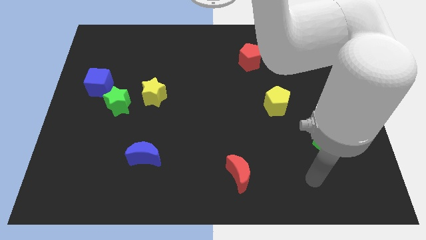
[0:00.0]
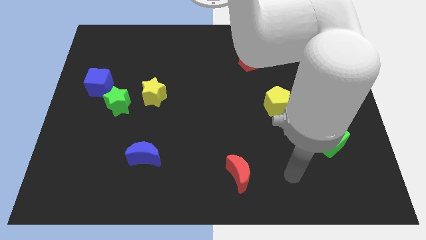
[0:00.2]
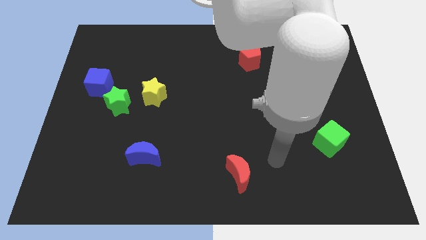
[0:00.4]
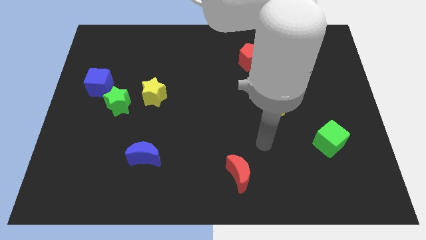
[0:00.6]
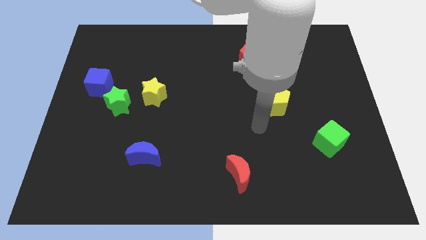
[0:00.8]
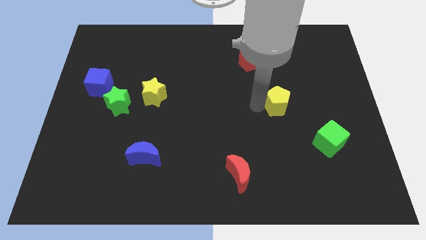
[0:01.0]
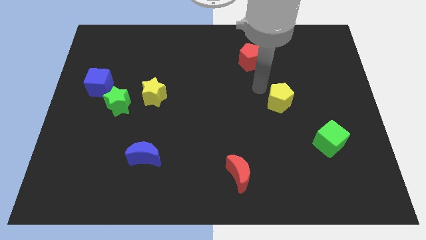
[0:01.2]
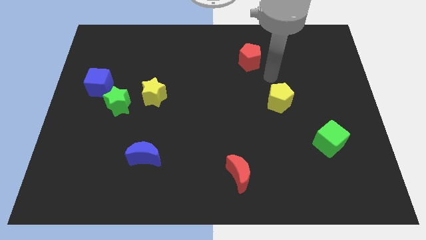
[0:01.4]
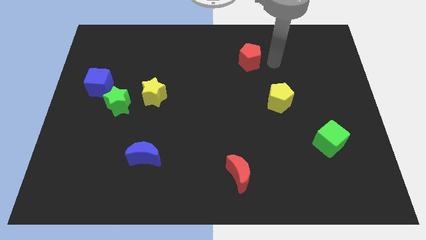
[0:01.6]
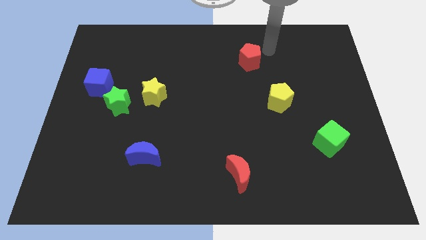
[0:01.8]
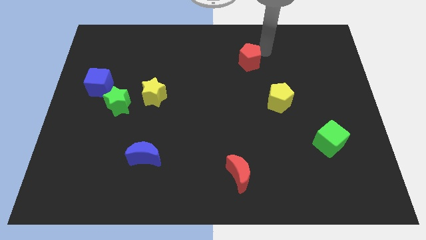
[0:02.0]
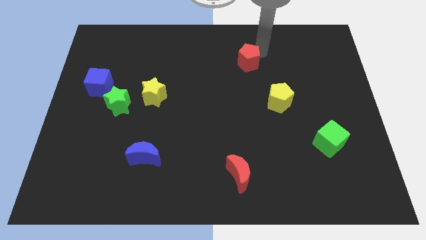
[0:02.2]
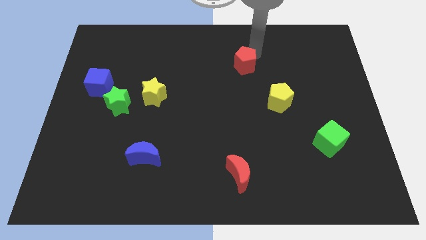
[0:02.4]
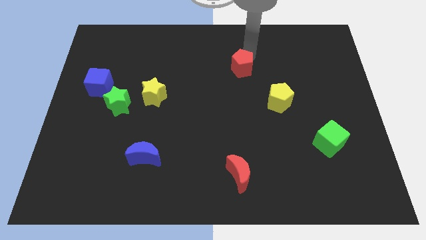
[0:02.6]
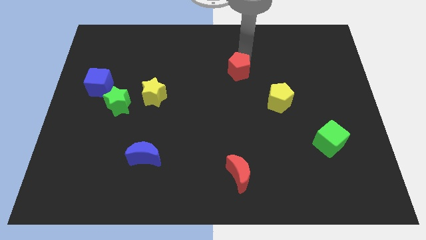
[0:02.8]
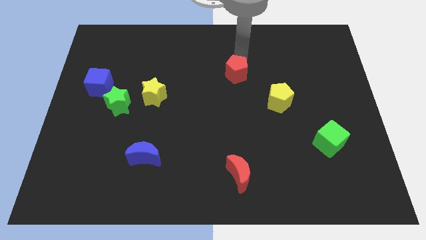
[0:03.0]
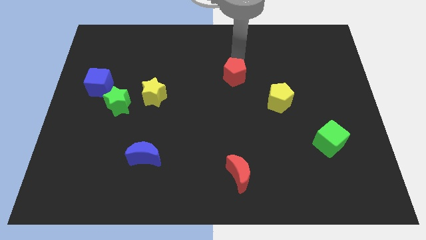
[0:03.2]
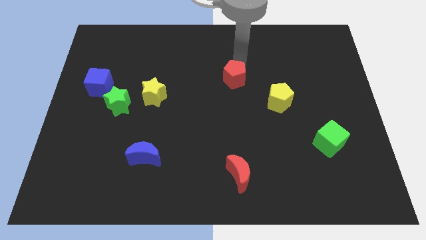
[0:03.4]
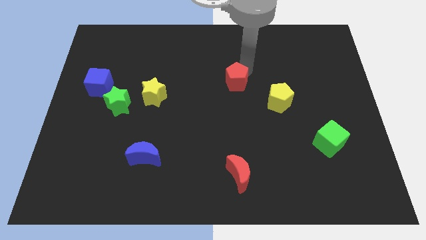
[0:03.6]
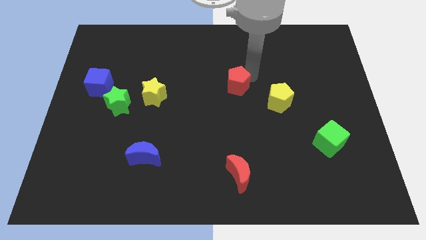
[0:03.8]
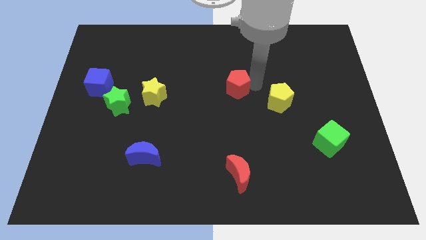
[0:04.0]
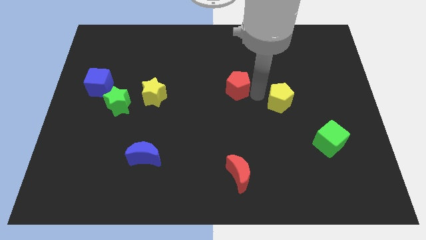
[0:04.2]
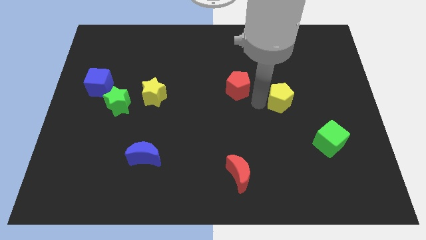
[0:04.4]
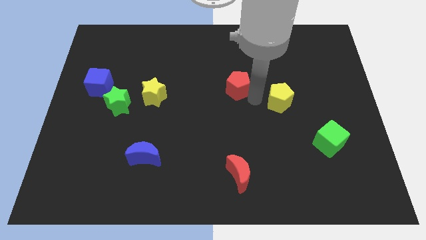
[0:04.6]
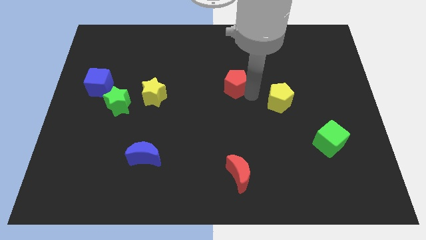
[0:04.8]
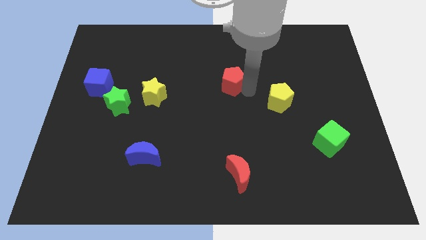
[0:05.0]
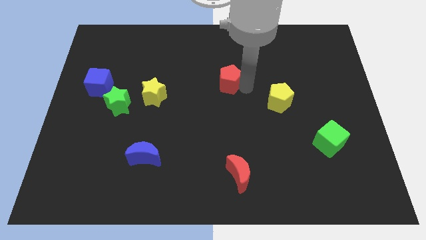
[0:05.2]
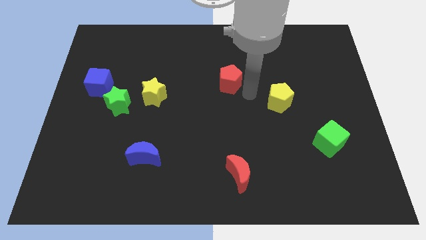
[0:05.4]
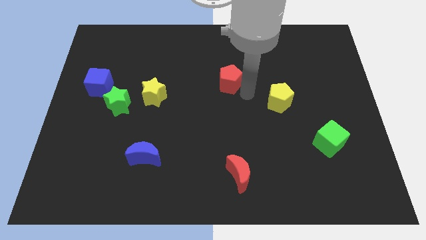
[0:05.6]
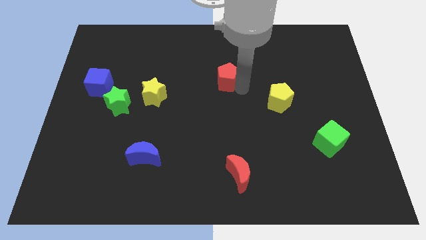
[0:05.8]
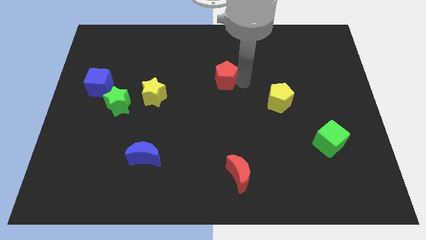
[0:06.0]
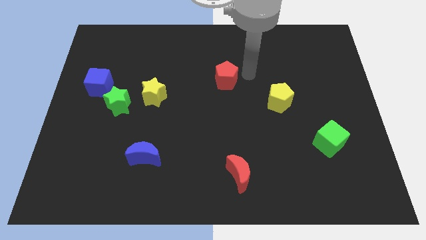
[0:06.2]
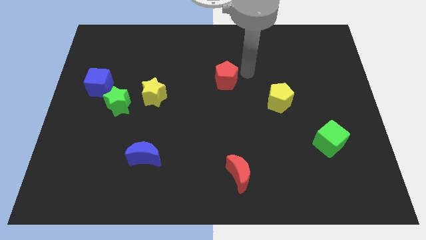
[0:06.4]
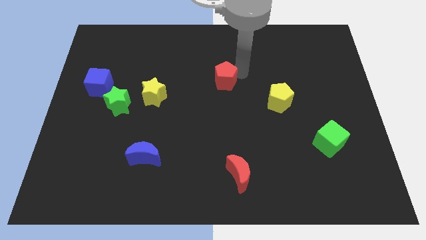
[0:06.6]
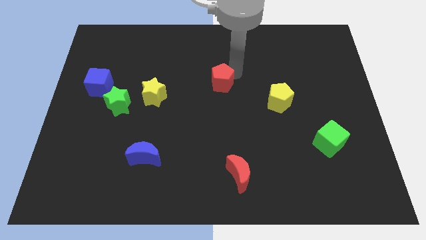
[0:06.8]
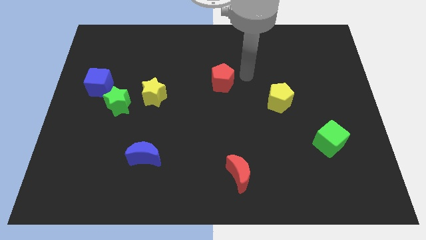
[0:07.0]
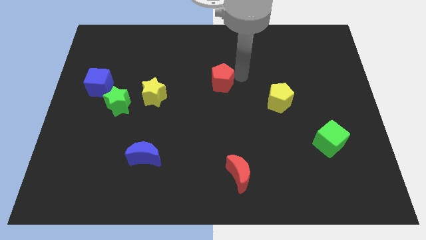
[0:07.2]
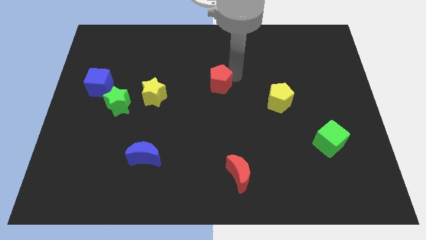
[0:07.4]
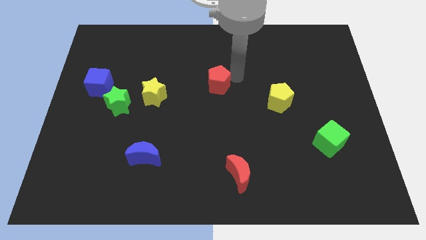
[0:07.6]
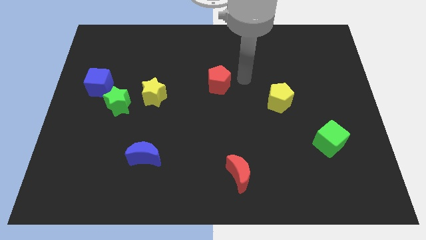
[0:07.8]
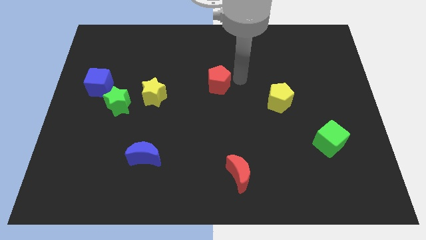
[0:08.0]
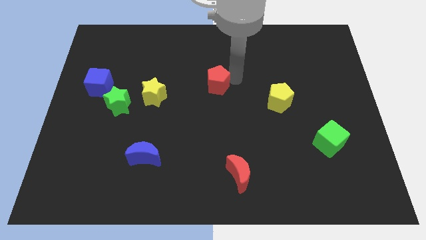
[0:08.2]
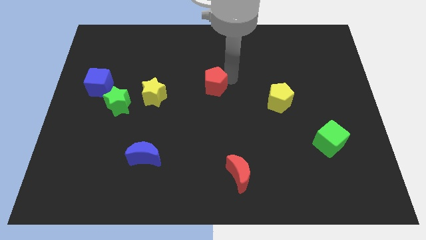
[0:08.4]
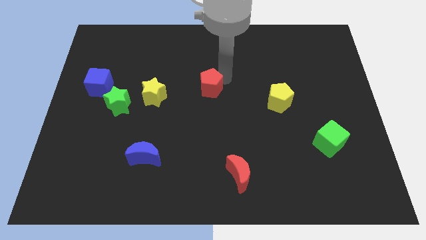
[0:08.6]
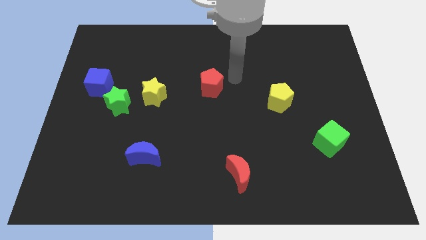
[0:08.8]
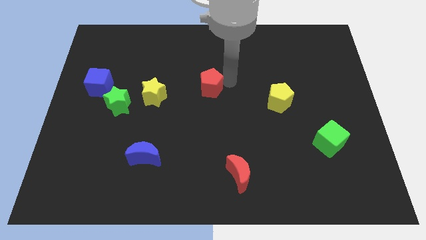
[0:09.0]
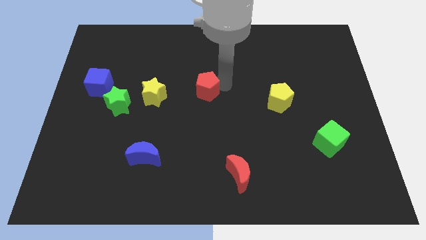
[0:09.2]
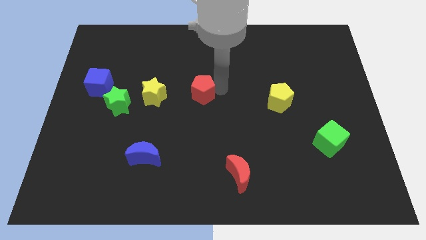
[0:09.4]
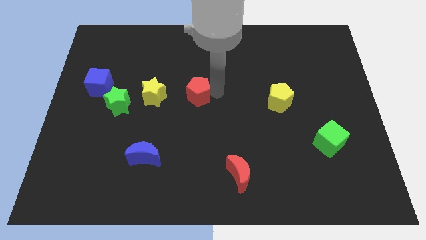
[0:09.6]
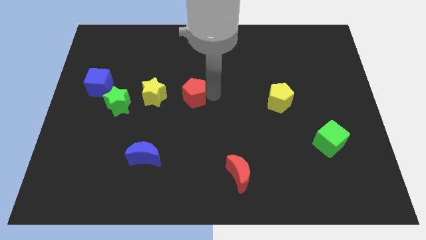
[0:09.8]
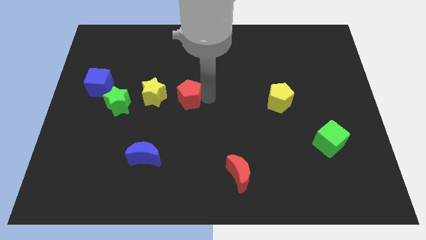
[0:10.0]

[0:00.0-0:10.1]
move the red pentagon diagonally down and to the left

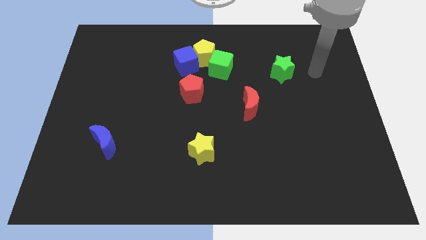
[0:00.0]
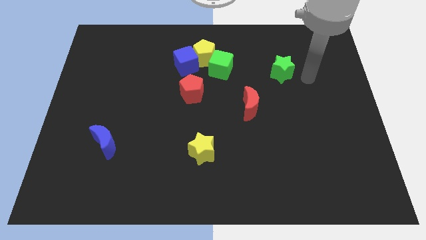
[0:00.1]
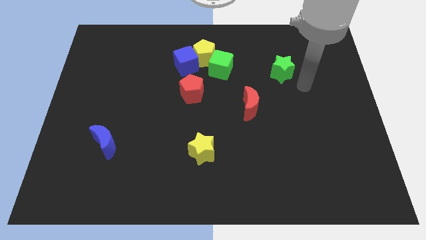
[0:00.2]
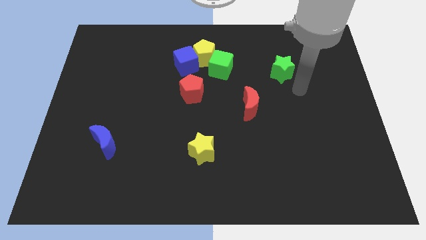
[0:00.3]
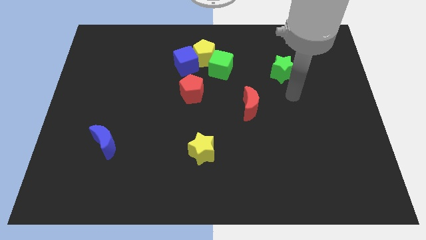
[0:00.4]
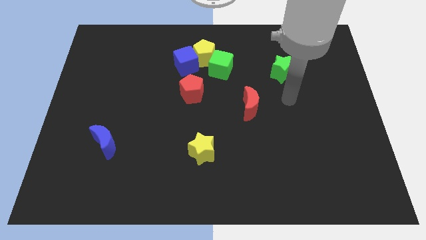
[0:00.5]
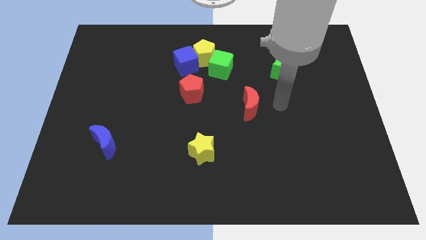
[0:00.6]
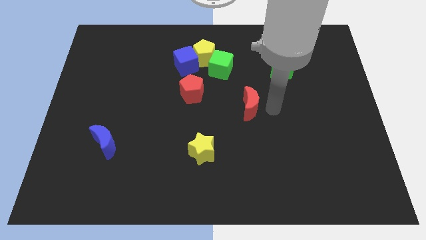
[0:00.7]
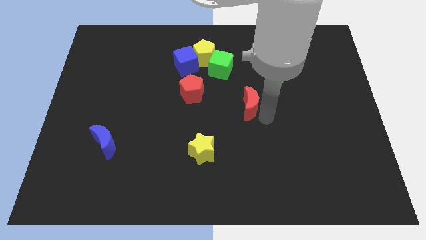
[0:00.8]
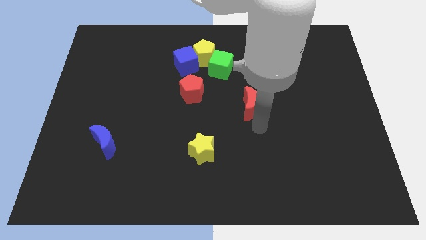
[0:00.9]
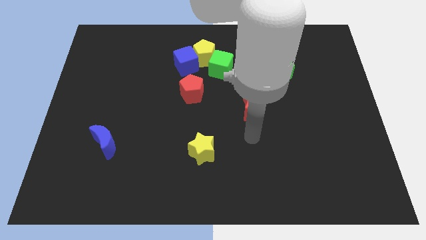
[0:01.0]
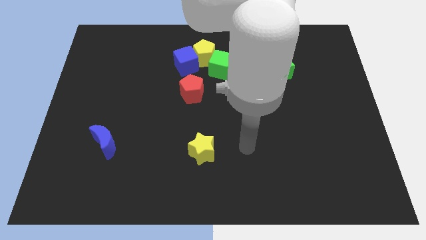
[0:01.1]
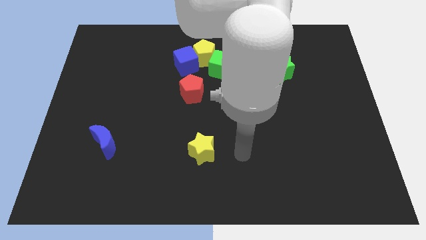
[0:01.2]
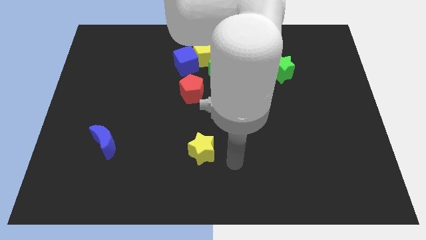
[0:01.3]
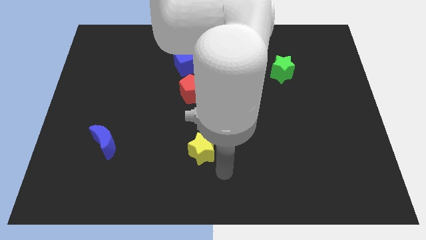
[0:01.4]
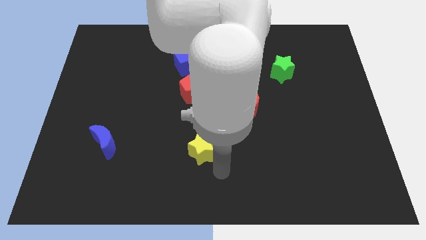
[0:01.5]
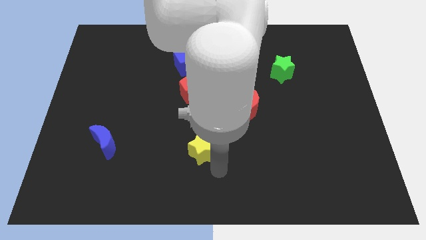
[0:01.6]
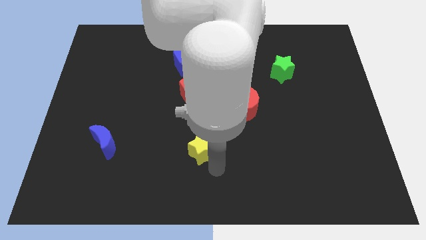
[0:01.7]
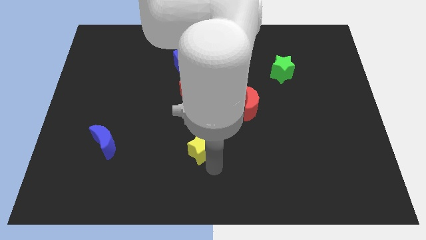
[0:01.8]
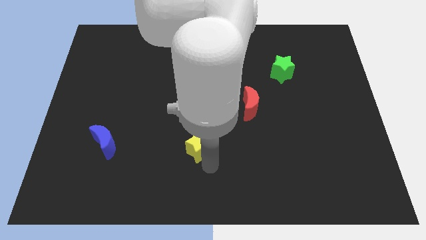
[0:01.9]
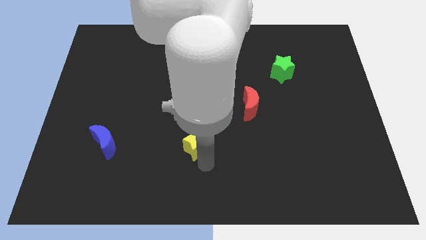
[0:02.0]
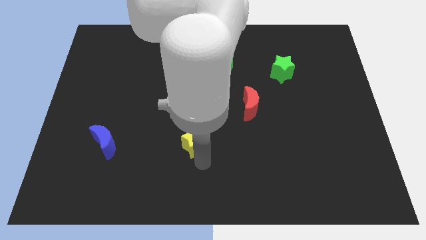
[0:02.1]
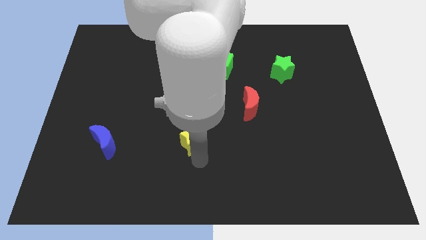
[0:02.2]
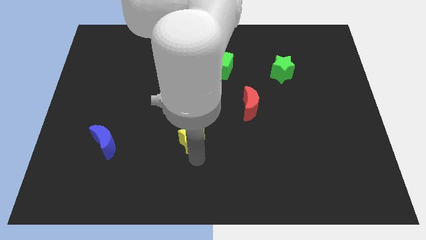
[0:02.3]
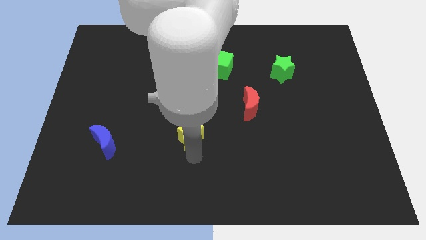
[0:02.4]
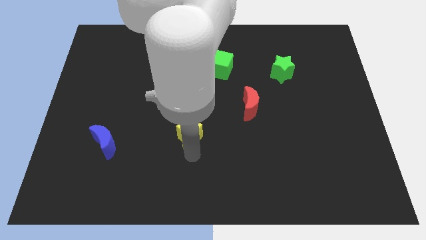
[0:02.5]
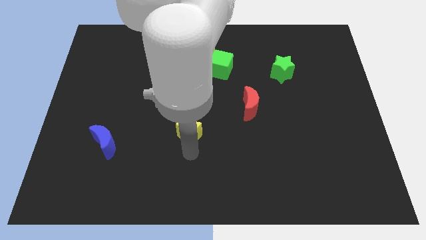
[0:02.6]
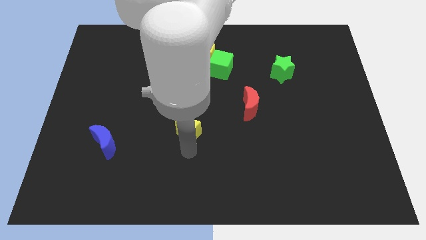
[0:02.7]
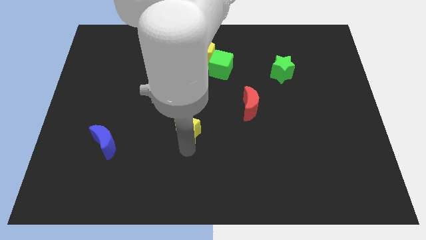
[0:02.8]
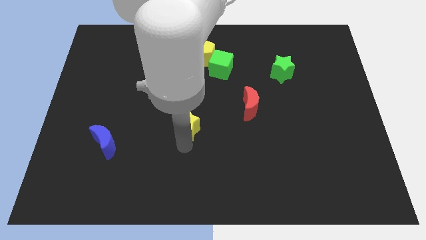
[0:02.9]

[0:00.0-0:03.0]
push the yellow star slightly upwards and left diagonally

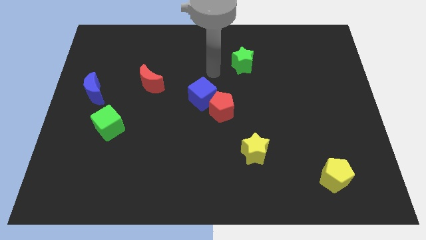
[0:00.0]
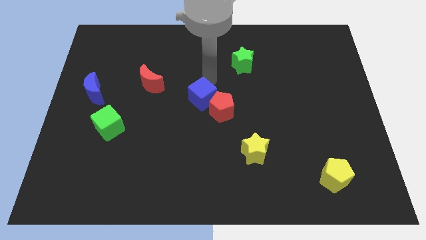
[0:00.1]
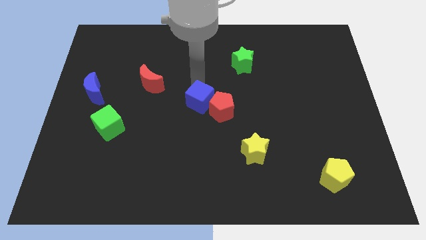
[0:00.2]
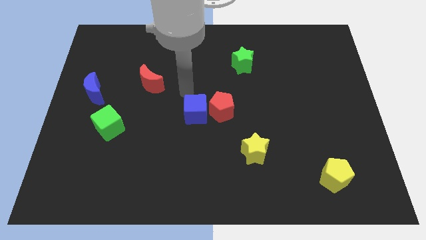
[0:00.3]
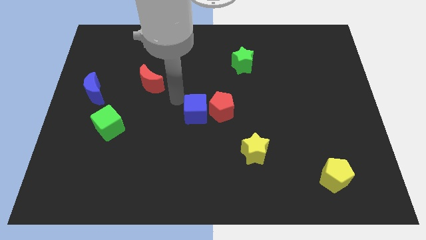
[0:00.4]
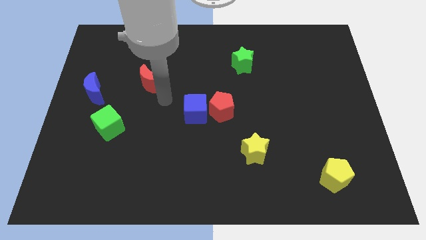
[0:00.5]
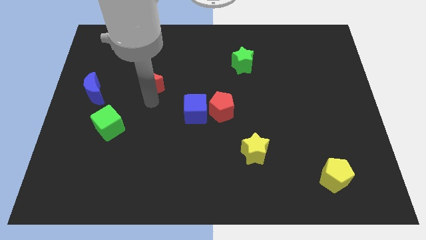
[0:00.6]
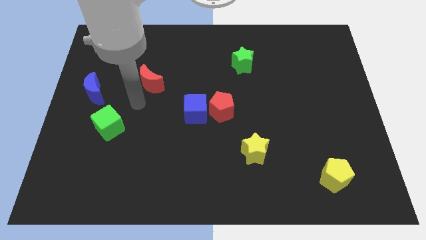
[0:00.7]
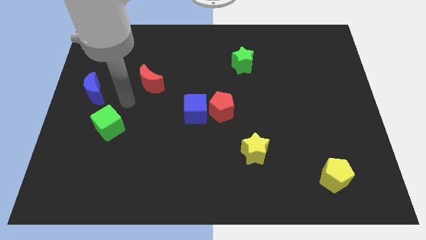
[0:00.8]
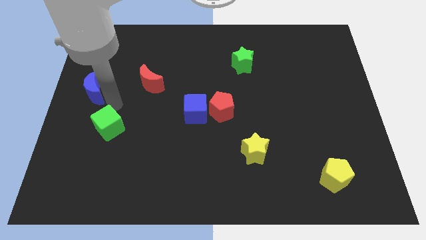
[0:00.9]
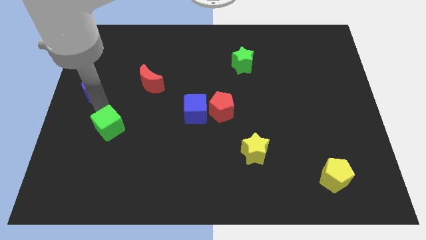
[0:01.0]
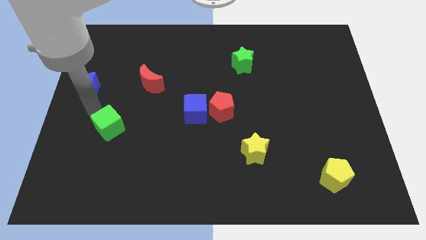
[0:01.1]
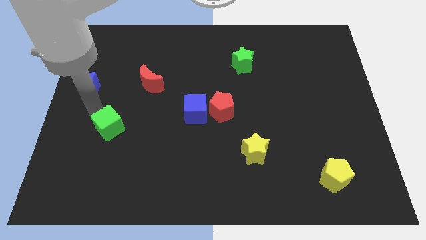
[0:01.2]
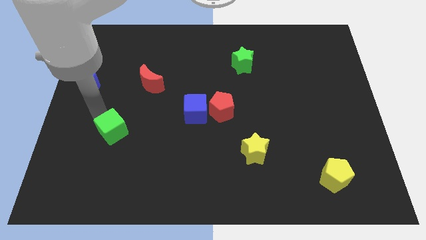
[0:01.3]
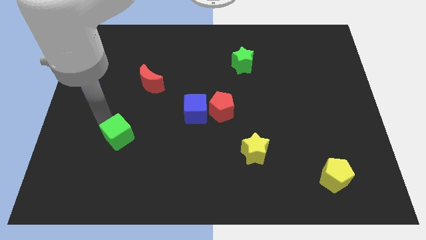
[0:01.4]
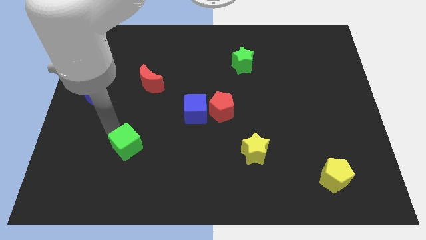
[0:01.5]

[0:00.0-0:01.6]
slightly push the green cube downwards and right
